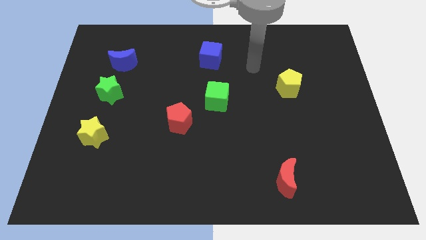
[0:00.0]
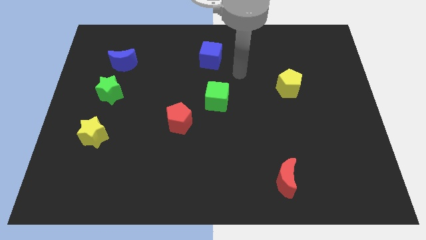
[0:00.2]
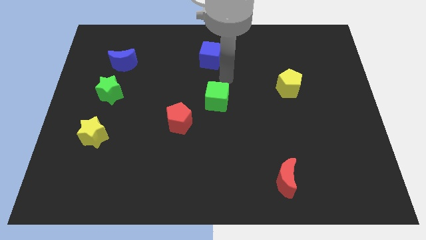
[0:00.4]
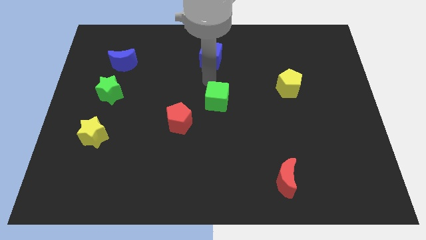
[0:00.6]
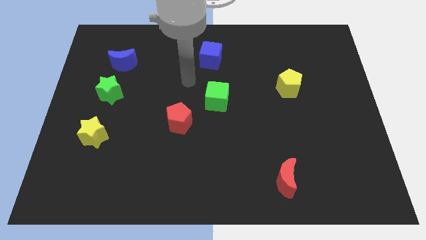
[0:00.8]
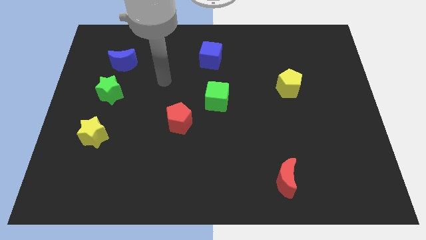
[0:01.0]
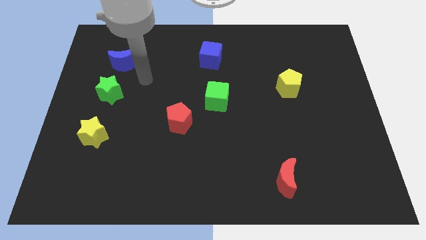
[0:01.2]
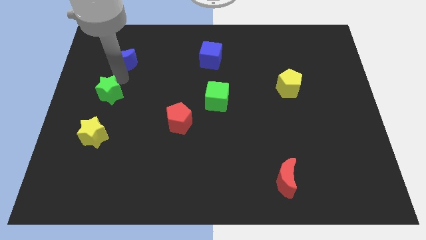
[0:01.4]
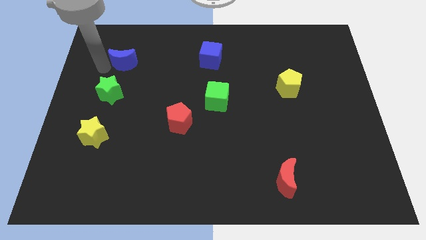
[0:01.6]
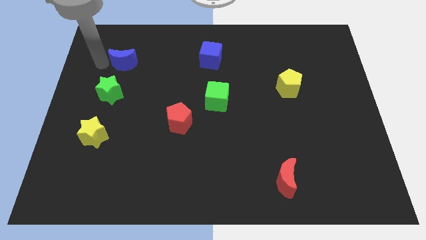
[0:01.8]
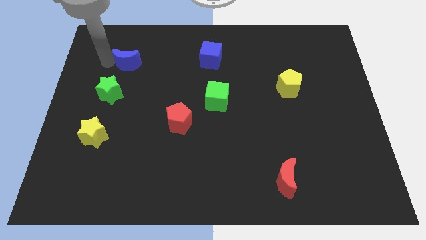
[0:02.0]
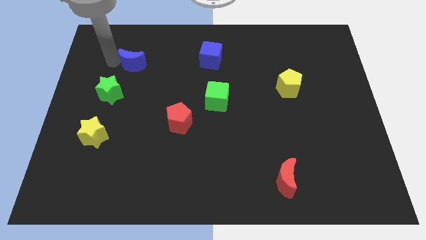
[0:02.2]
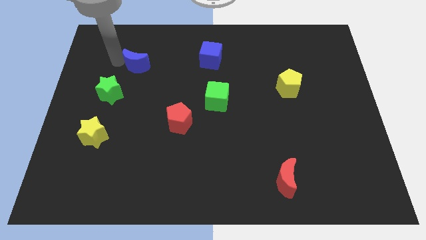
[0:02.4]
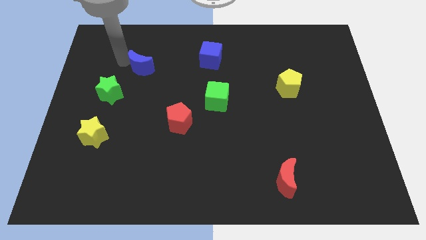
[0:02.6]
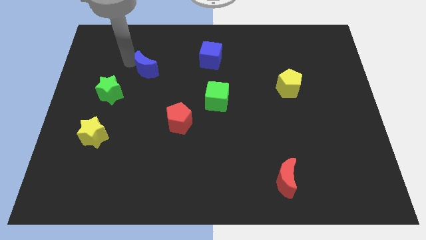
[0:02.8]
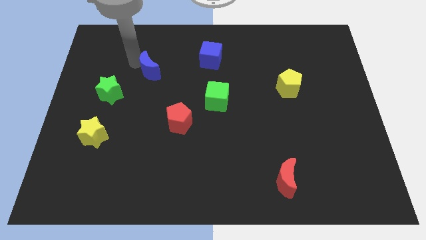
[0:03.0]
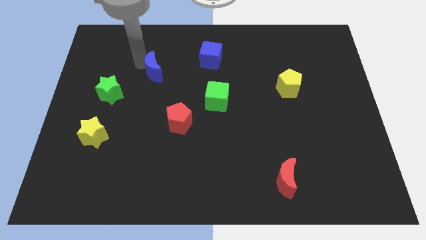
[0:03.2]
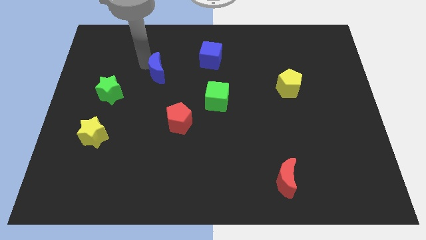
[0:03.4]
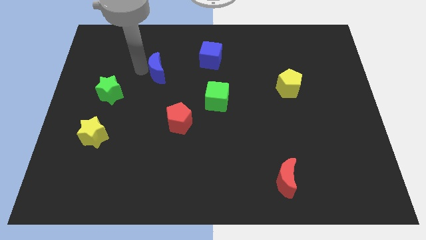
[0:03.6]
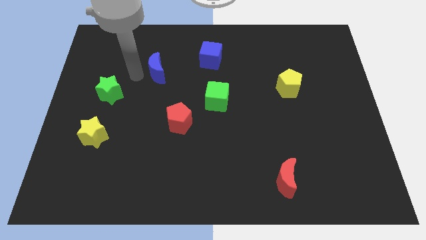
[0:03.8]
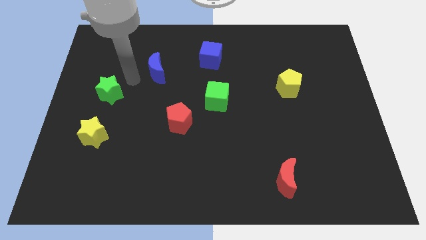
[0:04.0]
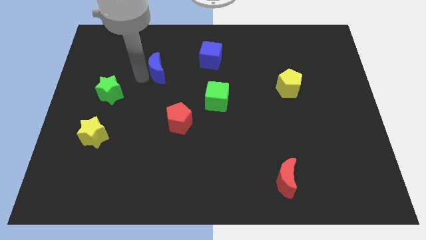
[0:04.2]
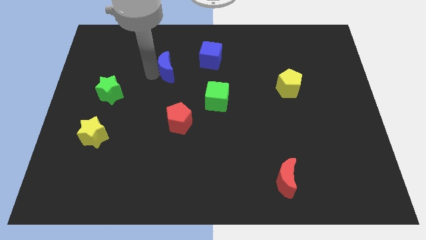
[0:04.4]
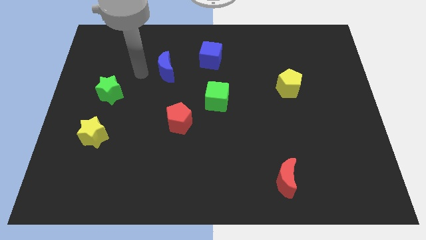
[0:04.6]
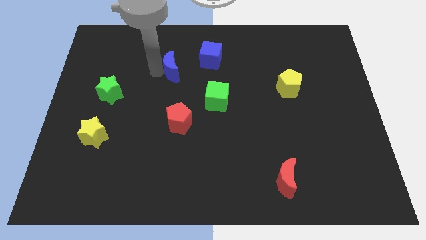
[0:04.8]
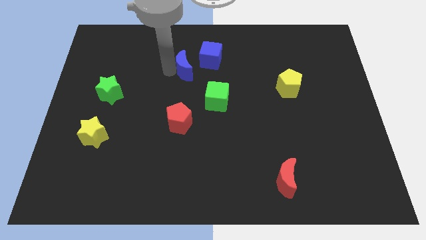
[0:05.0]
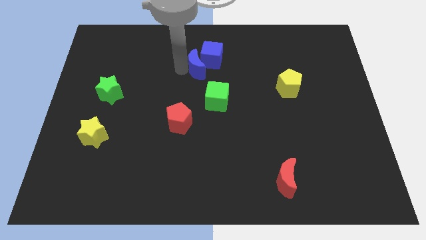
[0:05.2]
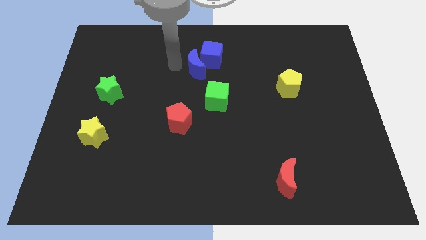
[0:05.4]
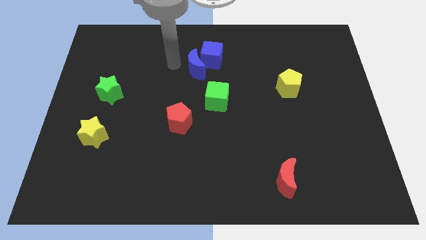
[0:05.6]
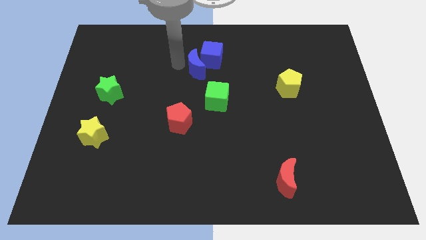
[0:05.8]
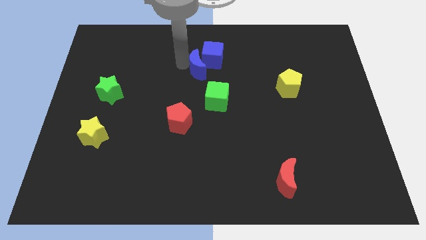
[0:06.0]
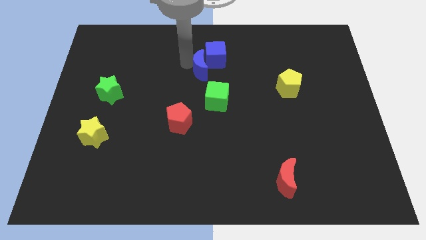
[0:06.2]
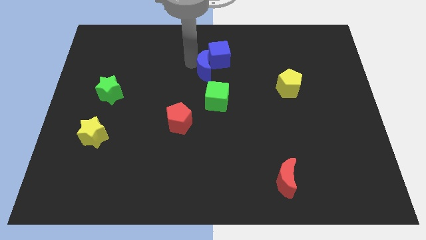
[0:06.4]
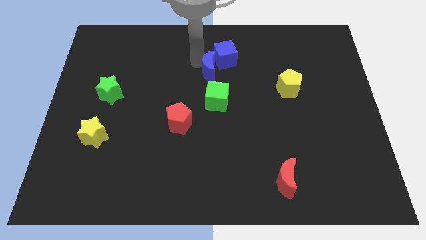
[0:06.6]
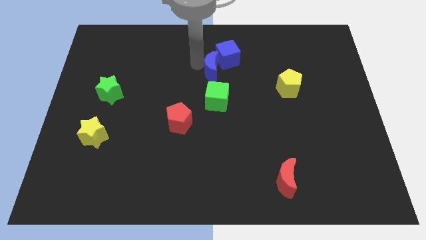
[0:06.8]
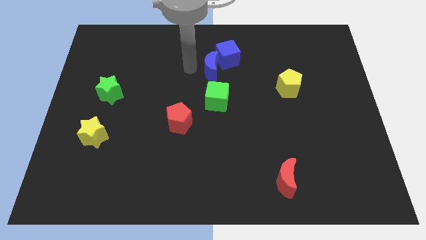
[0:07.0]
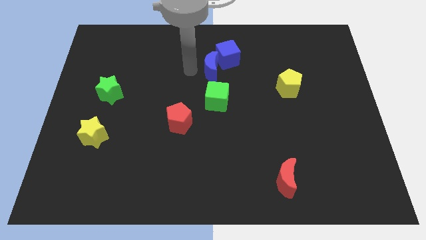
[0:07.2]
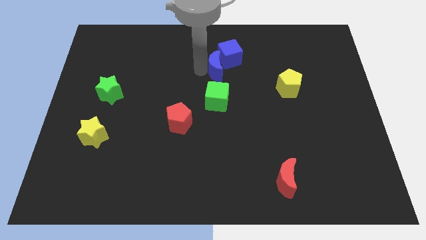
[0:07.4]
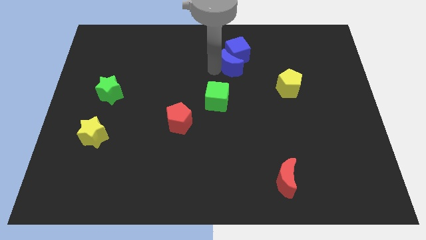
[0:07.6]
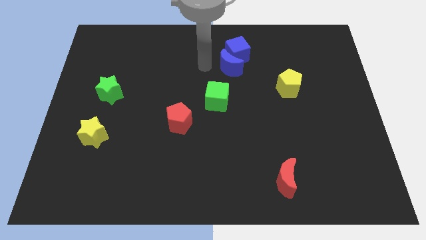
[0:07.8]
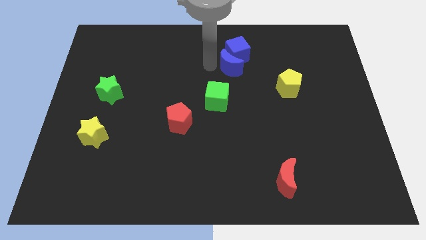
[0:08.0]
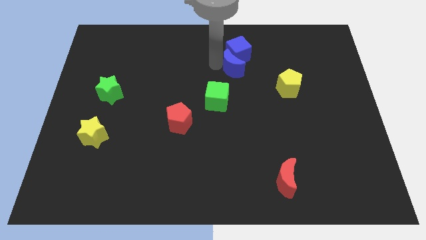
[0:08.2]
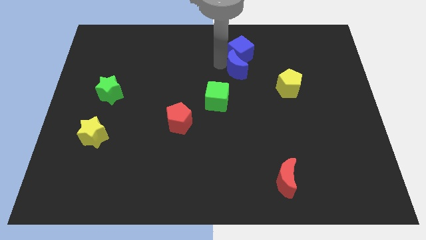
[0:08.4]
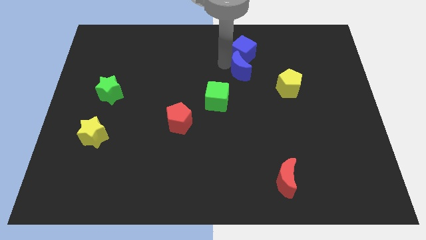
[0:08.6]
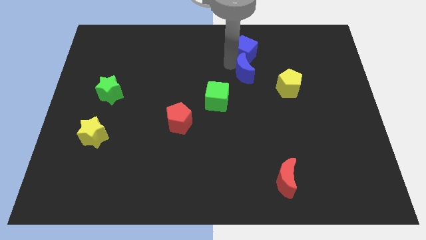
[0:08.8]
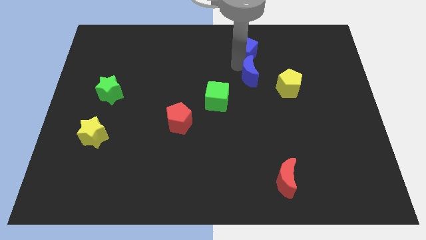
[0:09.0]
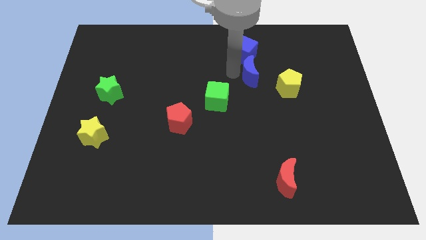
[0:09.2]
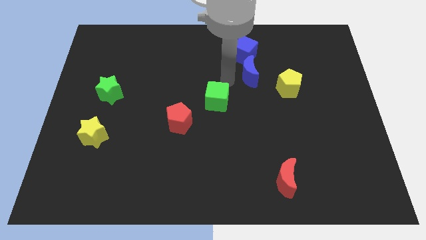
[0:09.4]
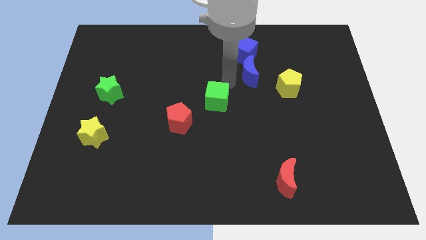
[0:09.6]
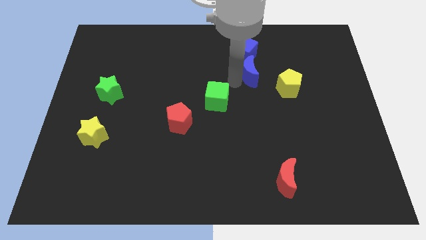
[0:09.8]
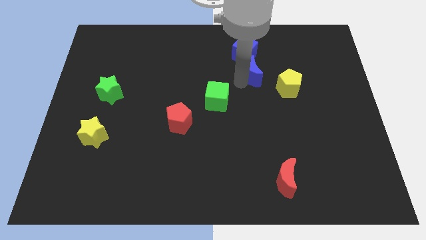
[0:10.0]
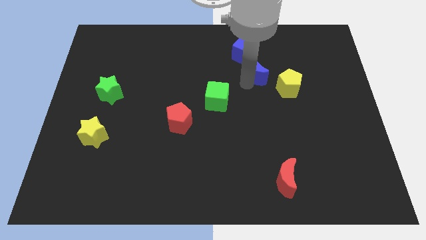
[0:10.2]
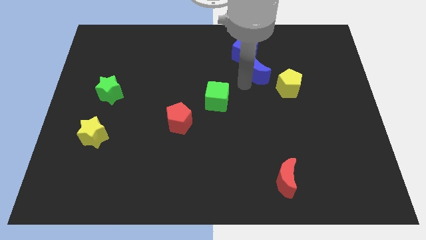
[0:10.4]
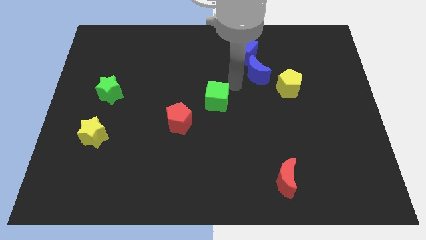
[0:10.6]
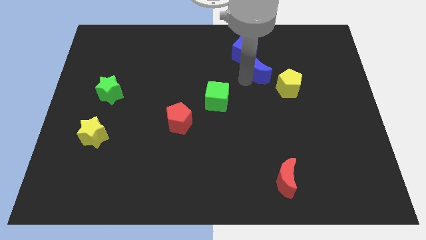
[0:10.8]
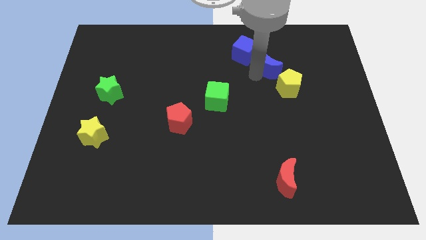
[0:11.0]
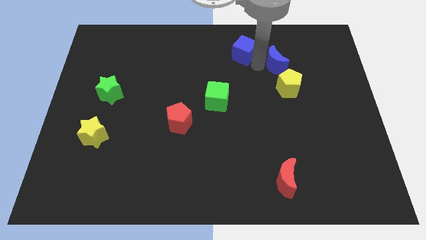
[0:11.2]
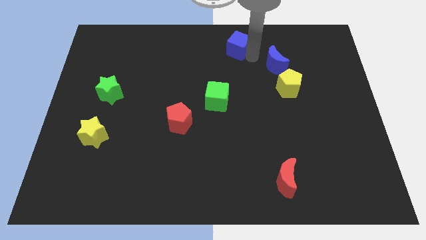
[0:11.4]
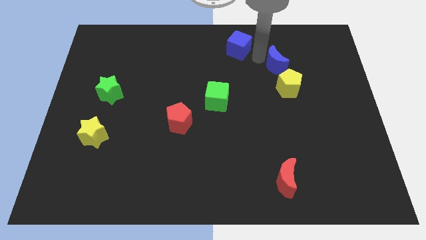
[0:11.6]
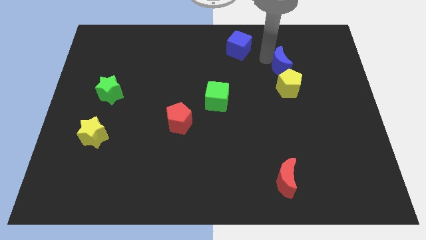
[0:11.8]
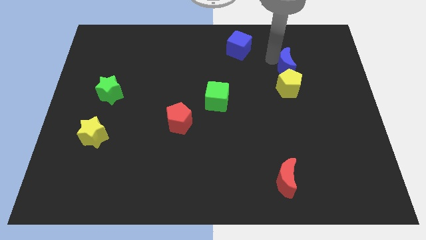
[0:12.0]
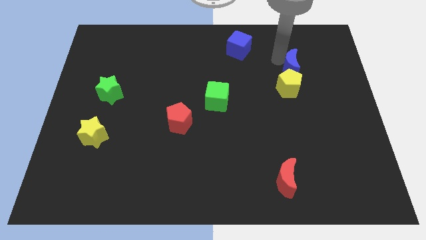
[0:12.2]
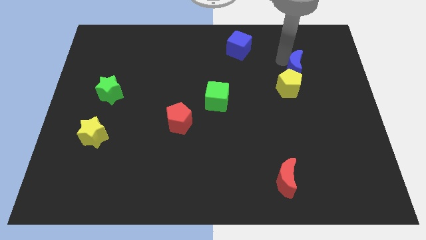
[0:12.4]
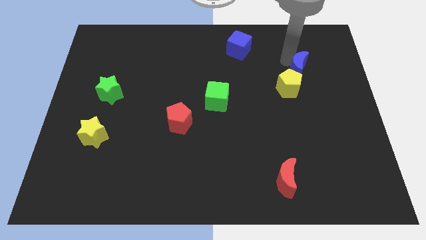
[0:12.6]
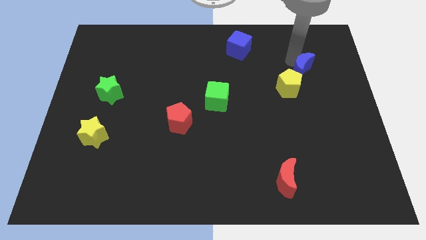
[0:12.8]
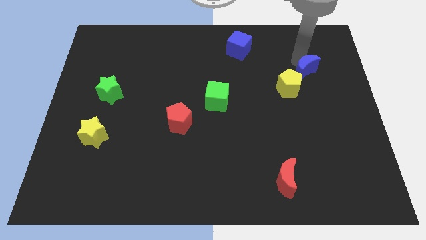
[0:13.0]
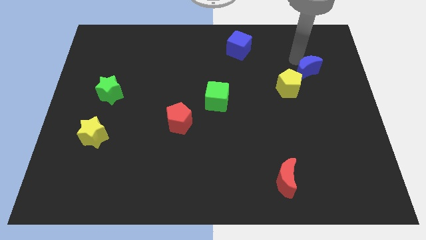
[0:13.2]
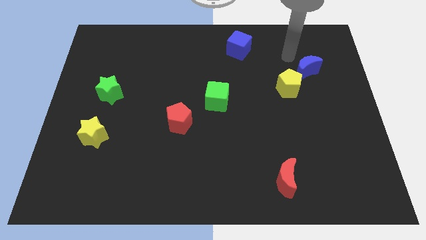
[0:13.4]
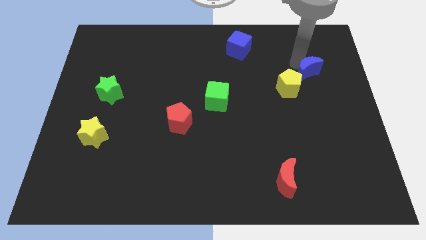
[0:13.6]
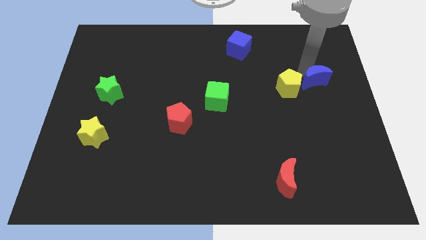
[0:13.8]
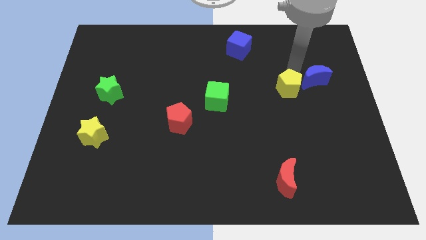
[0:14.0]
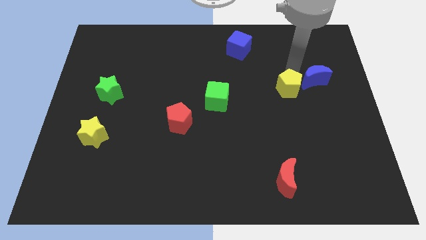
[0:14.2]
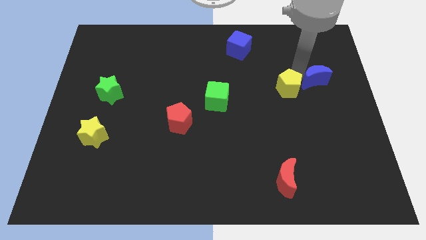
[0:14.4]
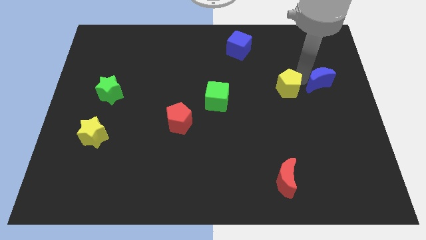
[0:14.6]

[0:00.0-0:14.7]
push the blue moon to the right side of the board
